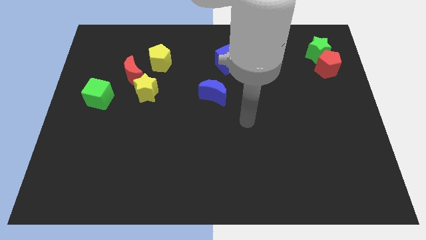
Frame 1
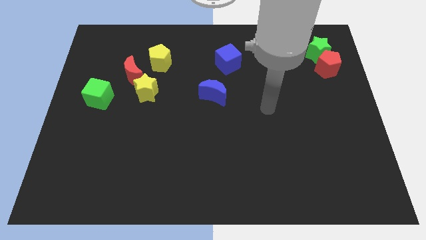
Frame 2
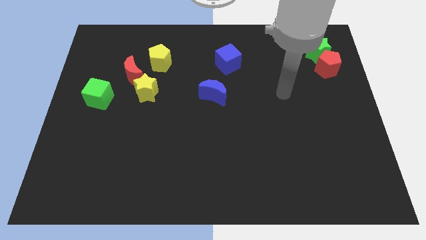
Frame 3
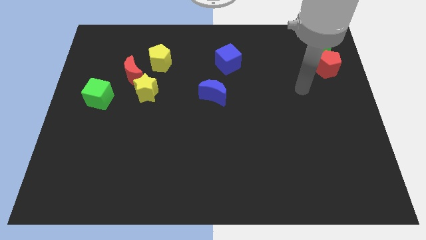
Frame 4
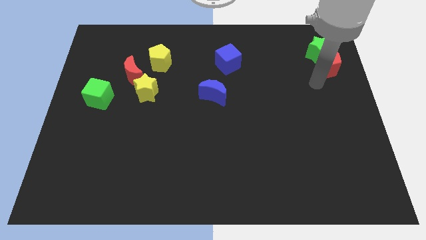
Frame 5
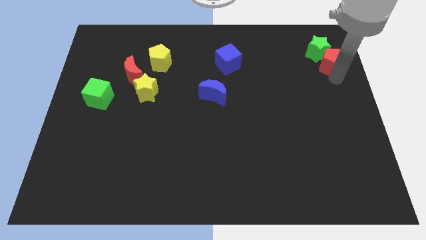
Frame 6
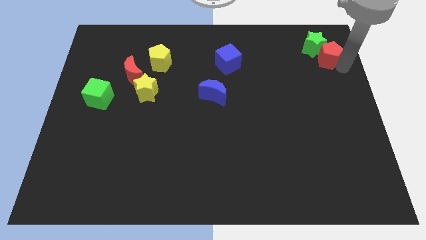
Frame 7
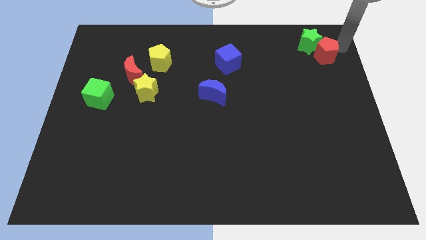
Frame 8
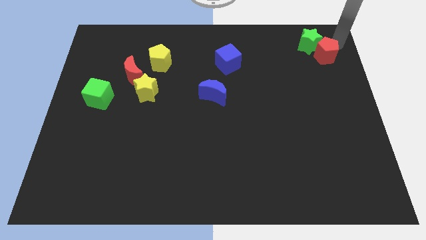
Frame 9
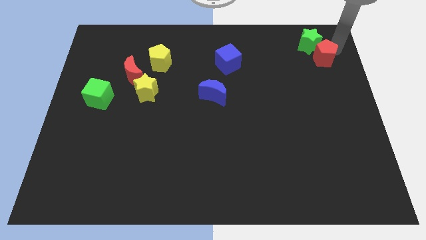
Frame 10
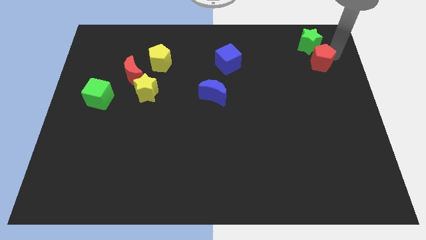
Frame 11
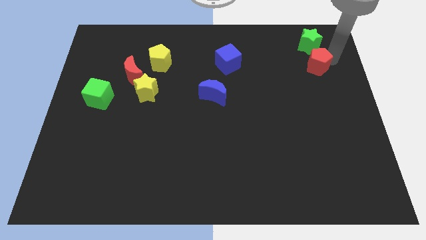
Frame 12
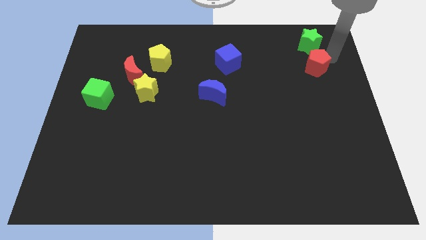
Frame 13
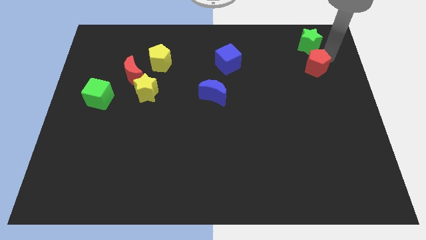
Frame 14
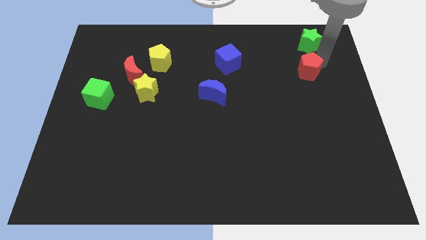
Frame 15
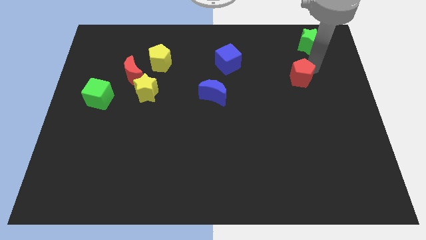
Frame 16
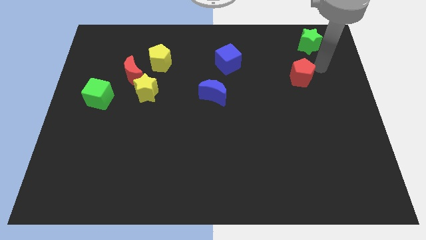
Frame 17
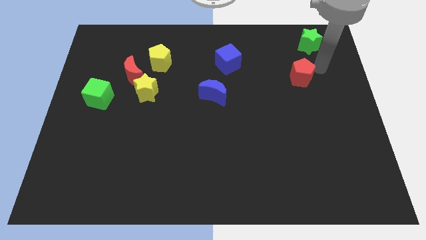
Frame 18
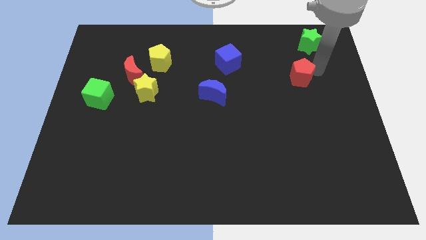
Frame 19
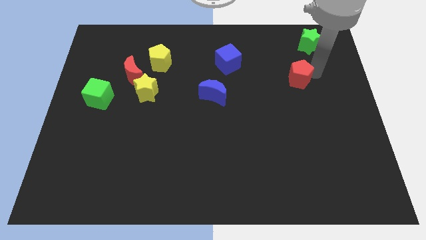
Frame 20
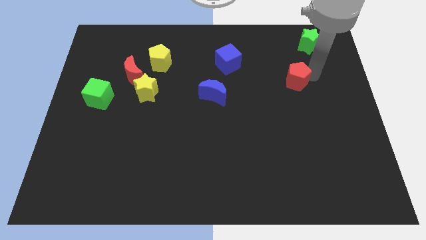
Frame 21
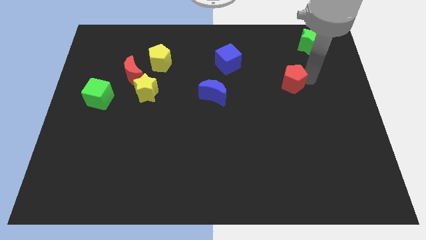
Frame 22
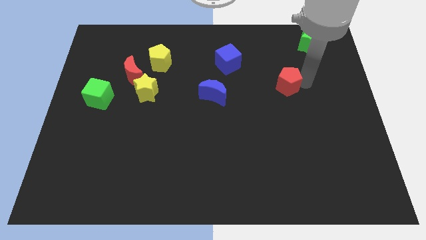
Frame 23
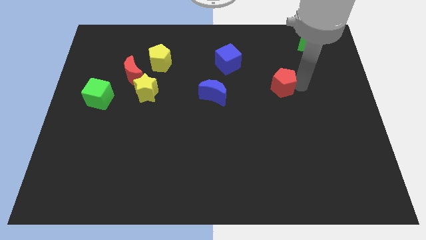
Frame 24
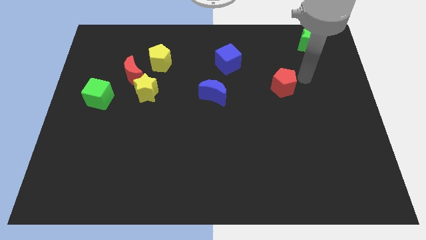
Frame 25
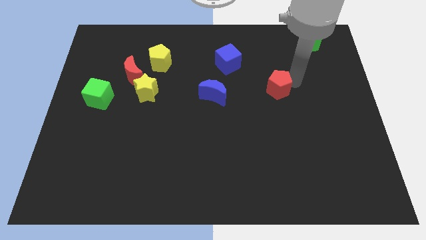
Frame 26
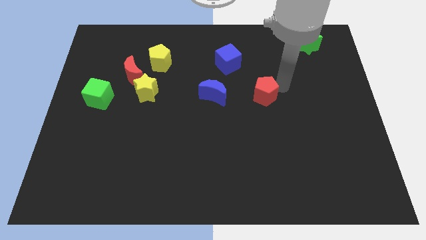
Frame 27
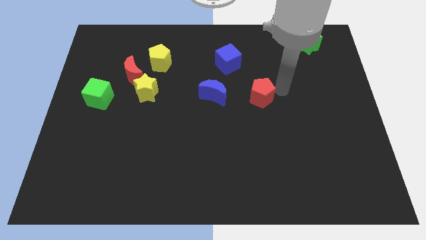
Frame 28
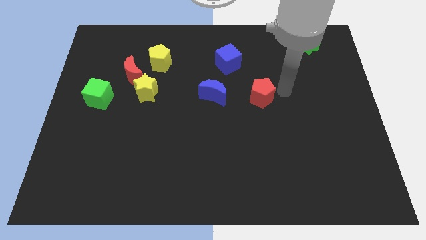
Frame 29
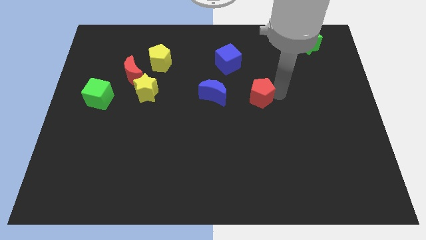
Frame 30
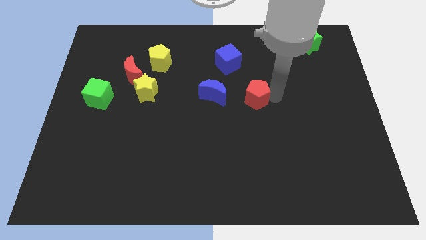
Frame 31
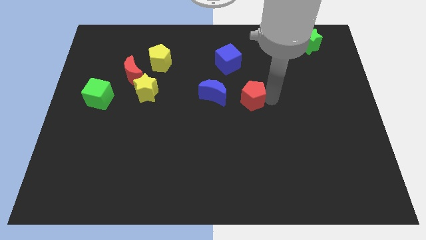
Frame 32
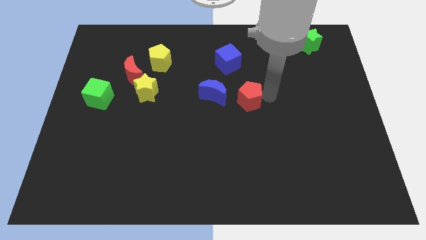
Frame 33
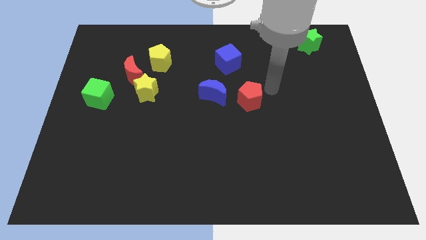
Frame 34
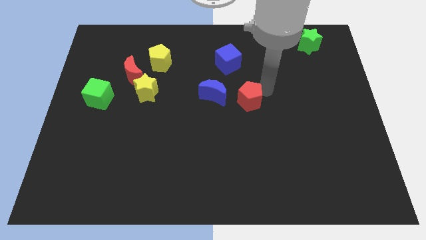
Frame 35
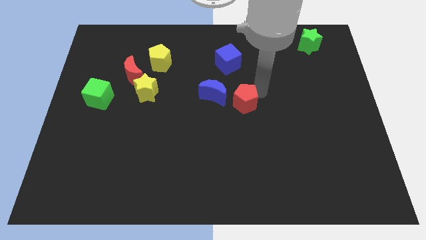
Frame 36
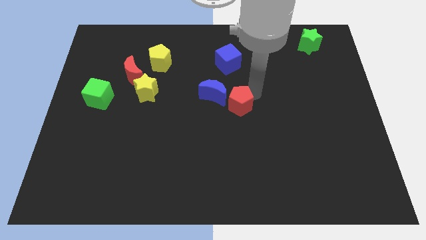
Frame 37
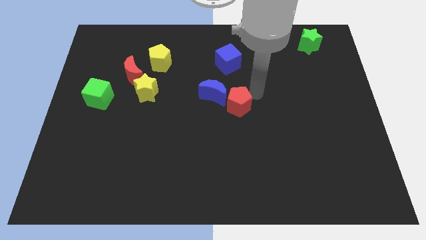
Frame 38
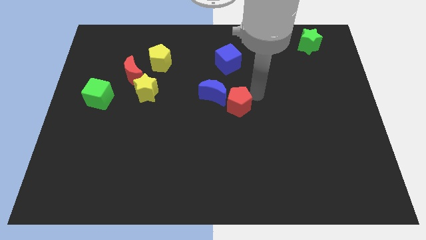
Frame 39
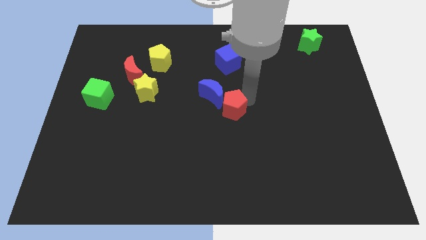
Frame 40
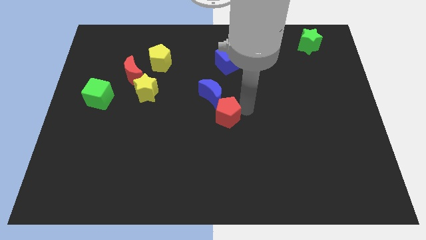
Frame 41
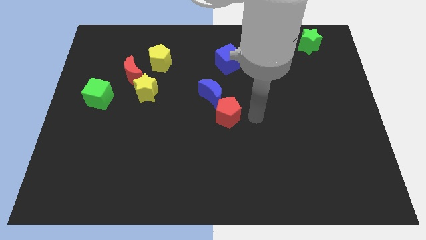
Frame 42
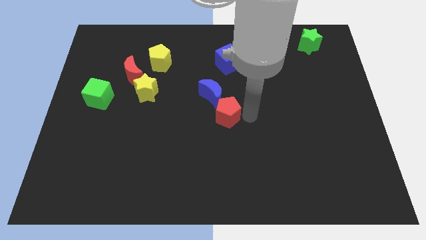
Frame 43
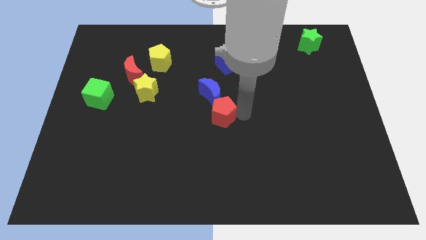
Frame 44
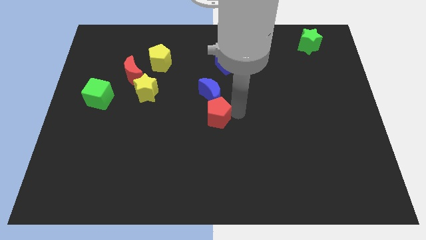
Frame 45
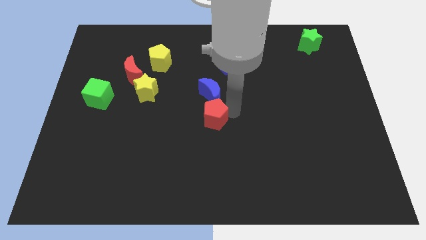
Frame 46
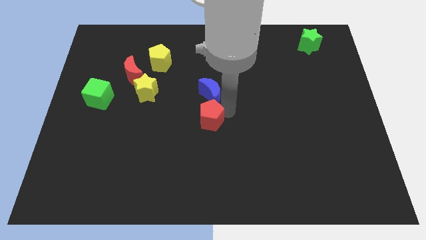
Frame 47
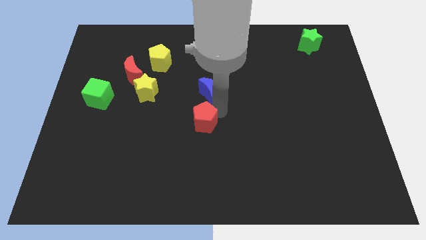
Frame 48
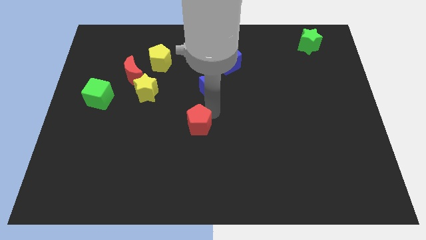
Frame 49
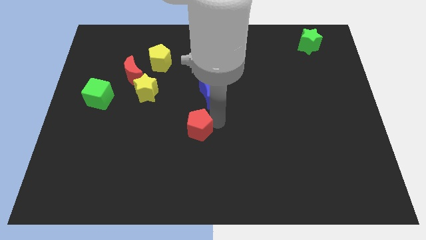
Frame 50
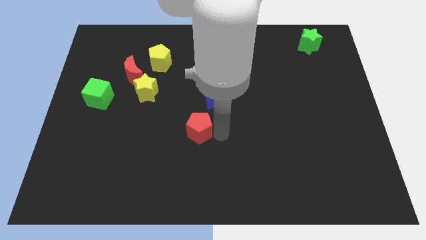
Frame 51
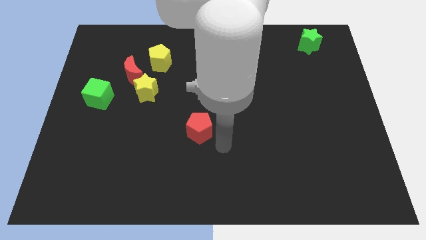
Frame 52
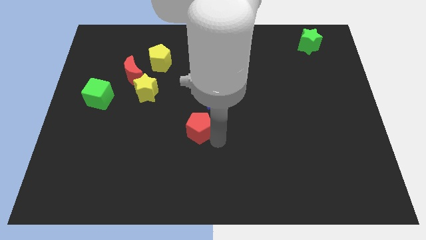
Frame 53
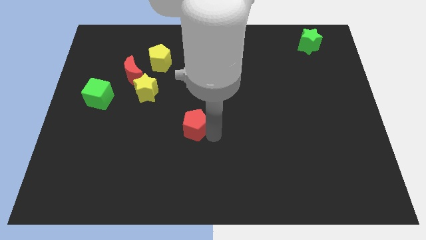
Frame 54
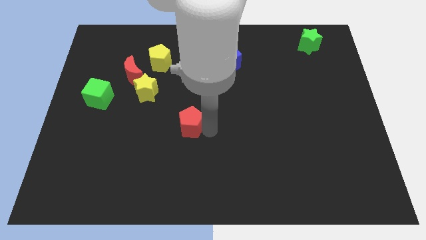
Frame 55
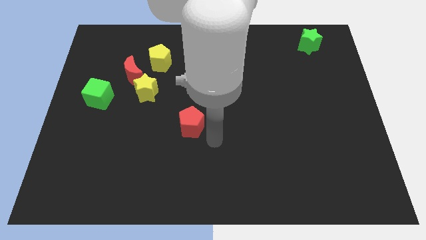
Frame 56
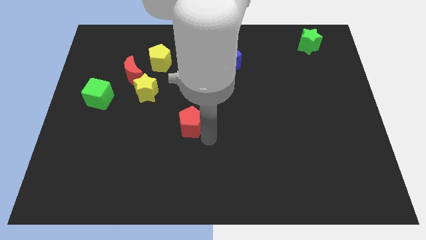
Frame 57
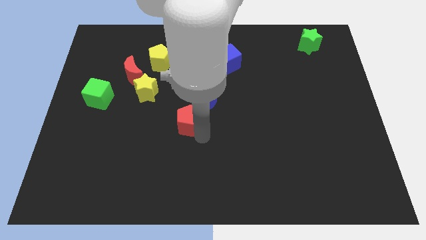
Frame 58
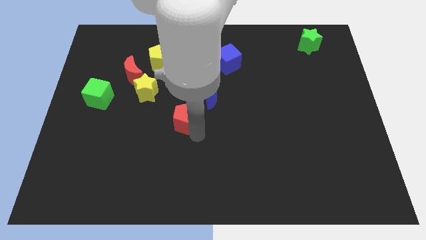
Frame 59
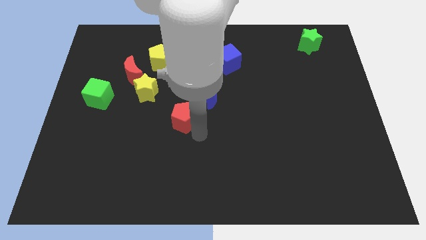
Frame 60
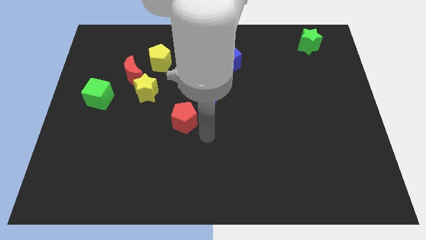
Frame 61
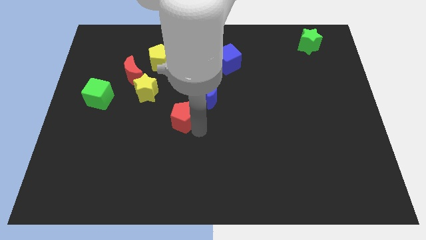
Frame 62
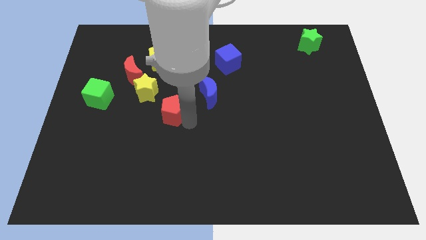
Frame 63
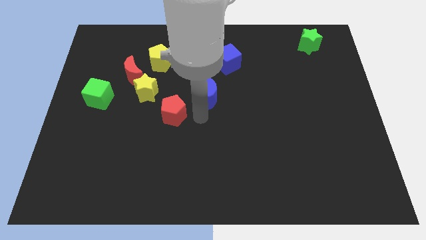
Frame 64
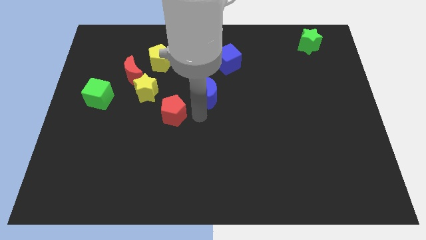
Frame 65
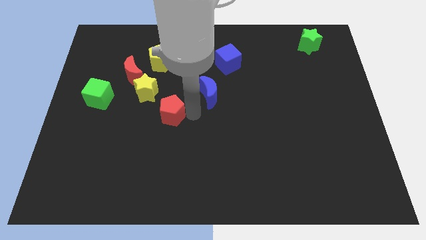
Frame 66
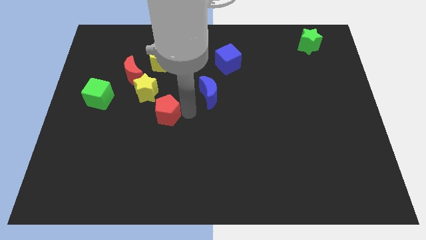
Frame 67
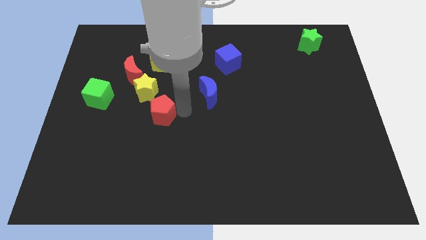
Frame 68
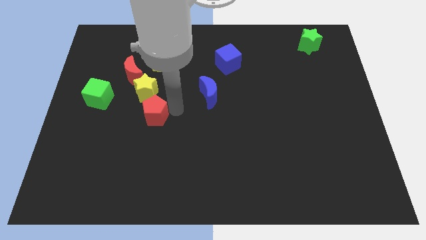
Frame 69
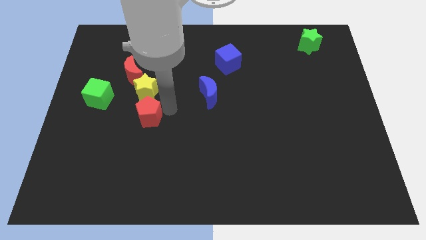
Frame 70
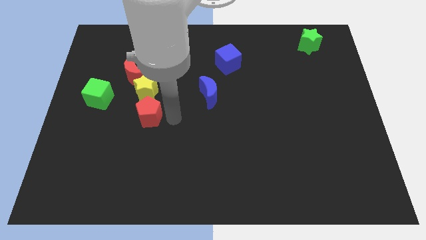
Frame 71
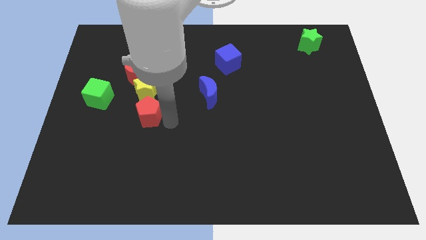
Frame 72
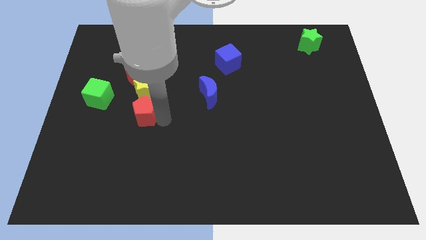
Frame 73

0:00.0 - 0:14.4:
push the red pentagon to the bottom side of the red moon
